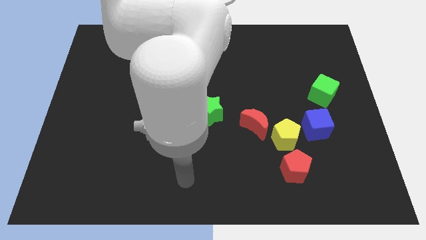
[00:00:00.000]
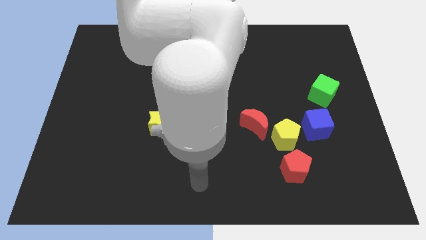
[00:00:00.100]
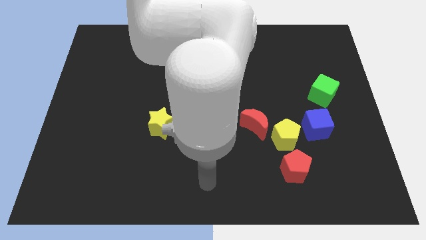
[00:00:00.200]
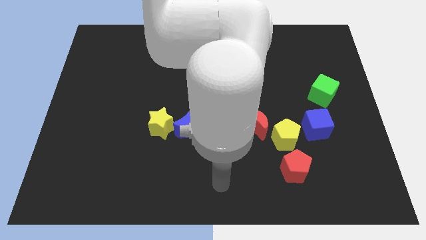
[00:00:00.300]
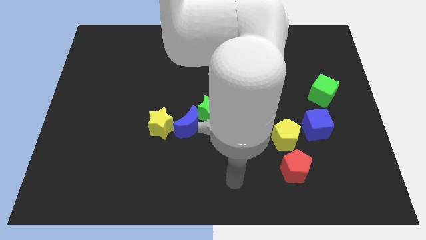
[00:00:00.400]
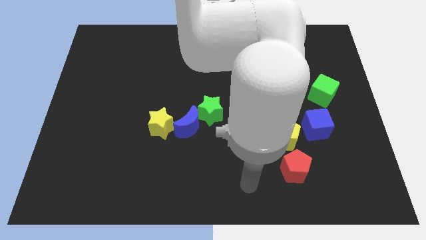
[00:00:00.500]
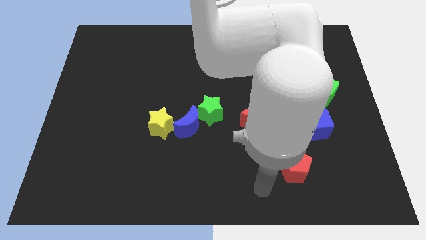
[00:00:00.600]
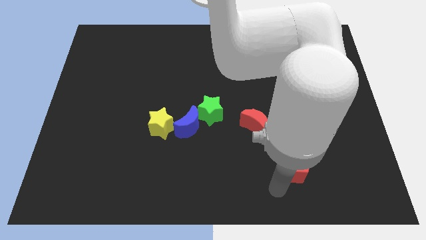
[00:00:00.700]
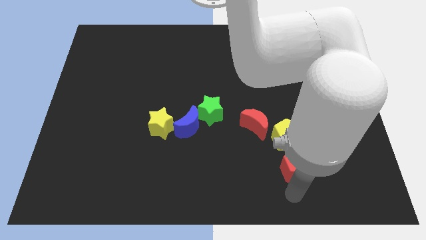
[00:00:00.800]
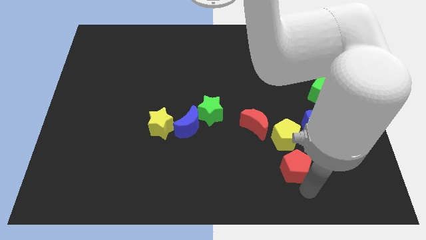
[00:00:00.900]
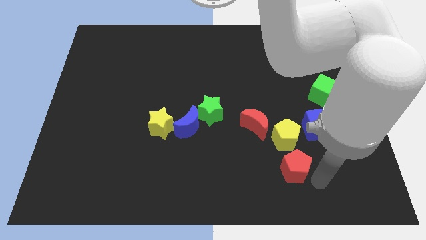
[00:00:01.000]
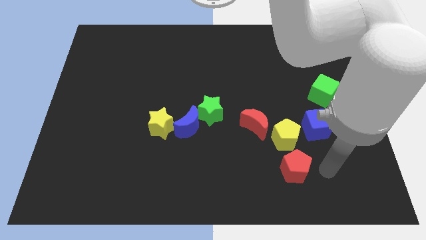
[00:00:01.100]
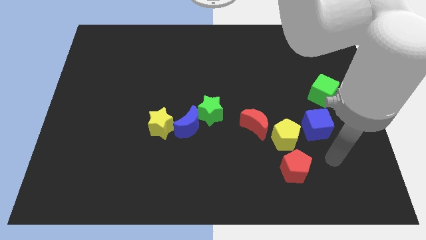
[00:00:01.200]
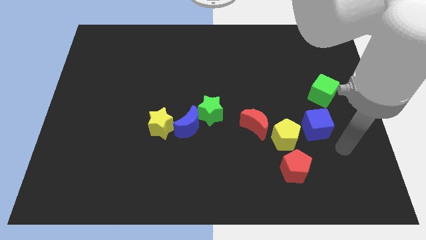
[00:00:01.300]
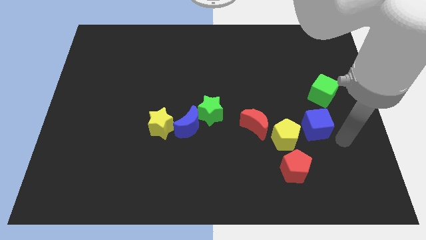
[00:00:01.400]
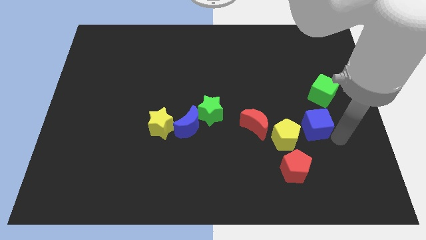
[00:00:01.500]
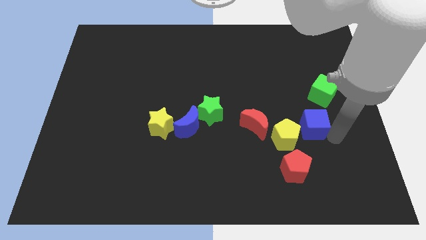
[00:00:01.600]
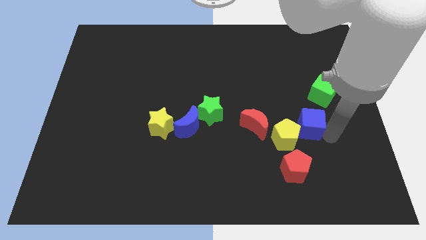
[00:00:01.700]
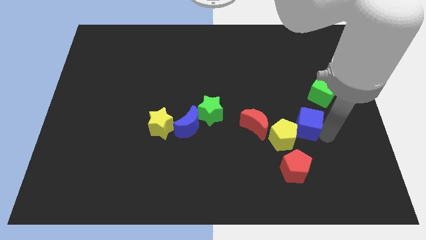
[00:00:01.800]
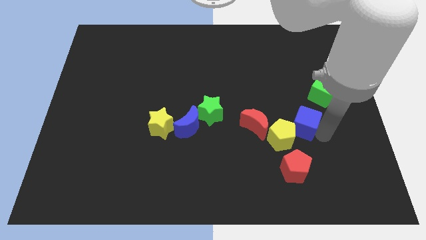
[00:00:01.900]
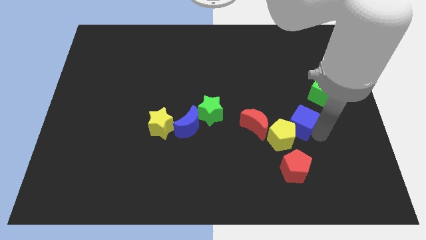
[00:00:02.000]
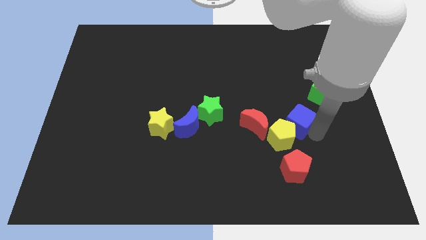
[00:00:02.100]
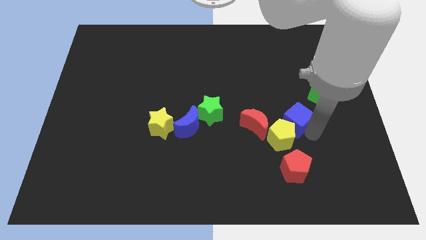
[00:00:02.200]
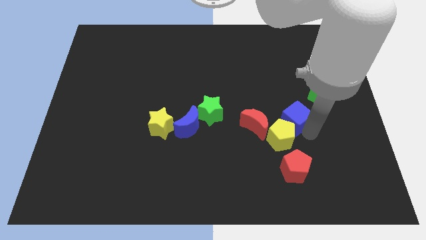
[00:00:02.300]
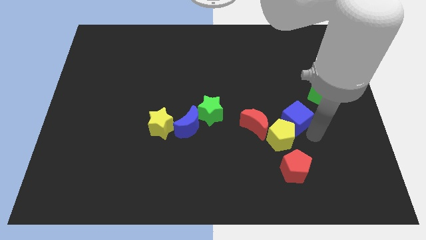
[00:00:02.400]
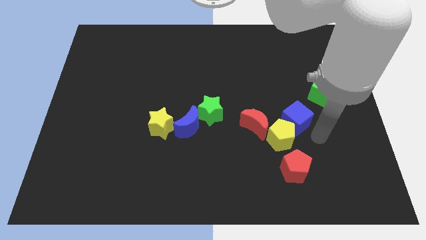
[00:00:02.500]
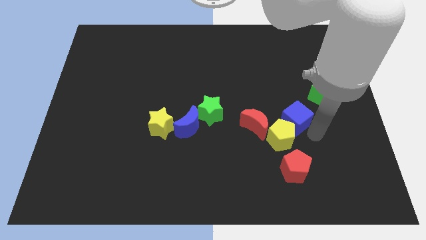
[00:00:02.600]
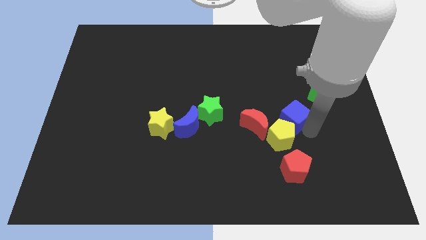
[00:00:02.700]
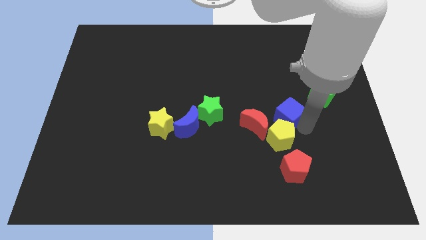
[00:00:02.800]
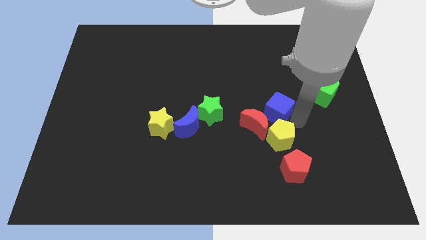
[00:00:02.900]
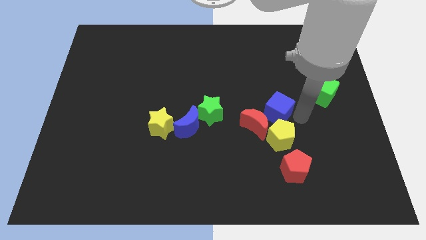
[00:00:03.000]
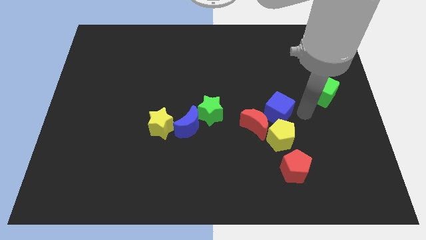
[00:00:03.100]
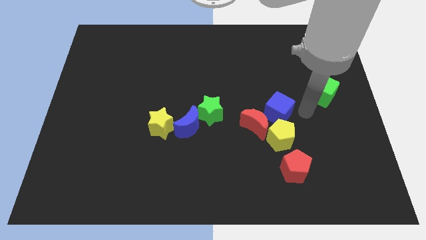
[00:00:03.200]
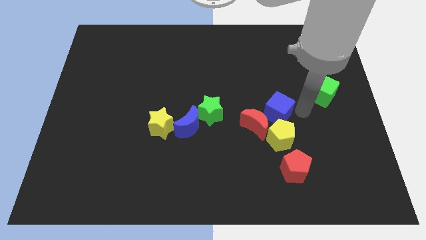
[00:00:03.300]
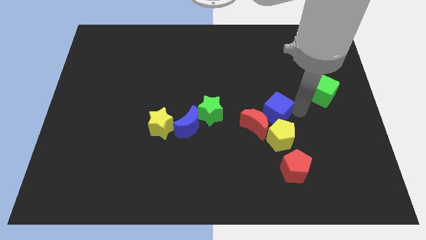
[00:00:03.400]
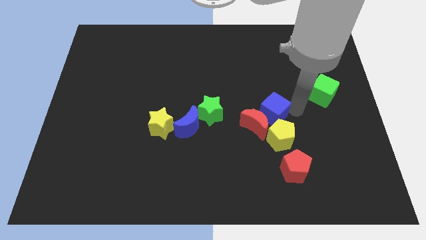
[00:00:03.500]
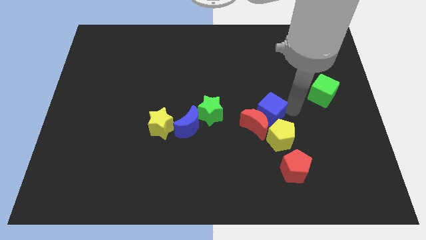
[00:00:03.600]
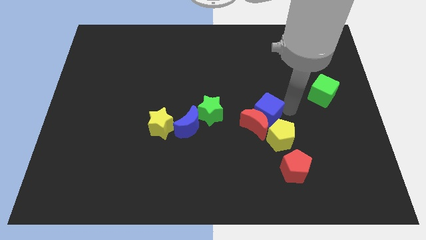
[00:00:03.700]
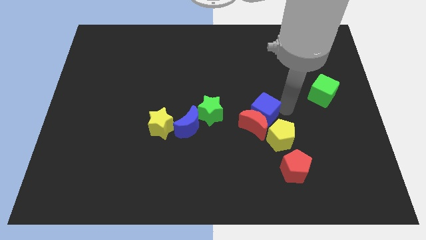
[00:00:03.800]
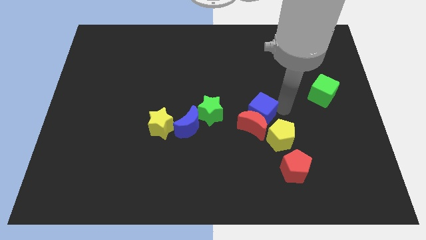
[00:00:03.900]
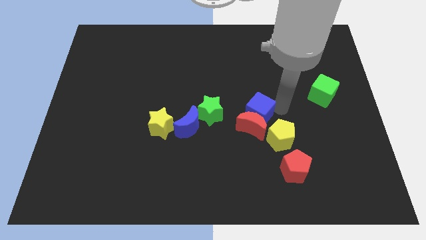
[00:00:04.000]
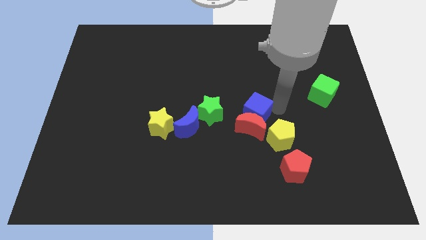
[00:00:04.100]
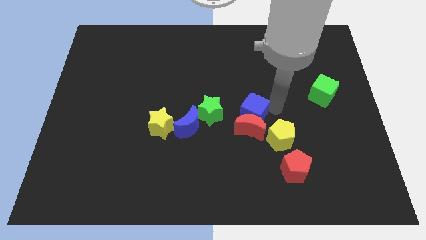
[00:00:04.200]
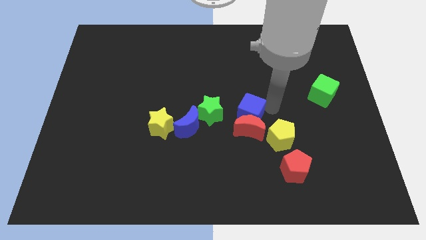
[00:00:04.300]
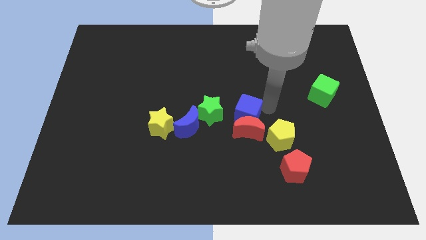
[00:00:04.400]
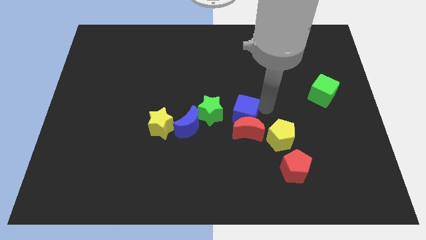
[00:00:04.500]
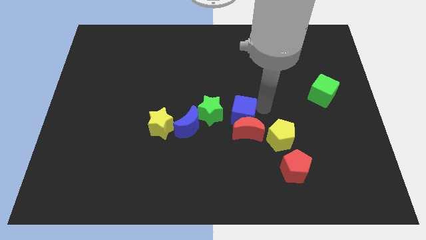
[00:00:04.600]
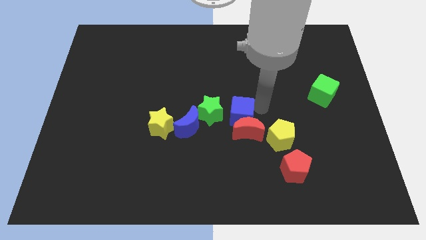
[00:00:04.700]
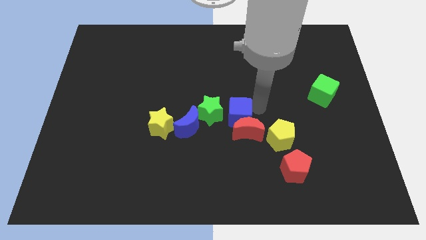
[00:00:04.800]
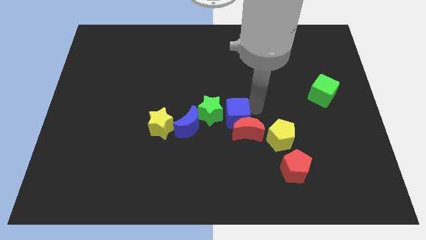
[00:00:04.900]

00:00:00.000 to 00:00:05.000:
put the blue cube towards the green star

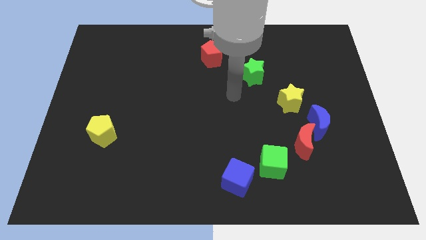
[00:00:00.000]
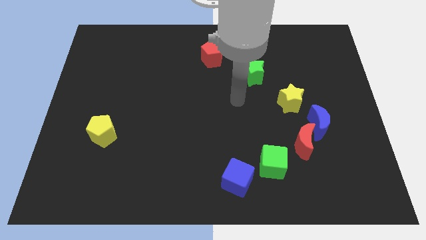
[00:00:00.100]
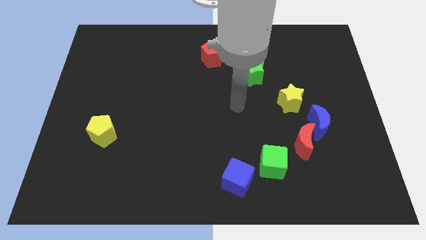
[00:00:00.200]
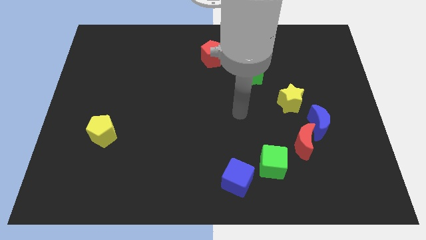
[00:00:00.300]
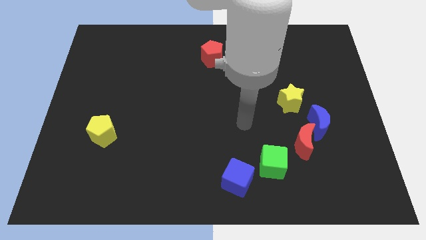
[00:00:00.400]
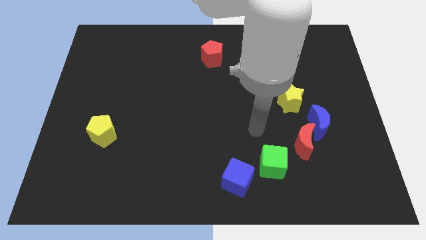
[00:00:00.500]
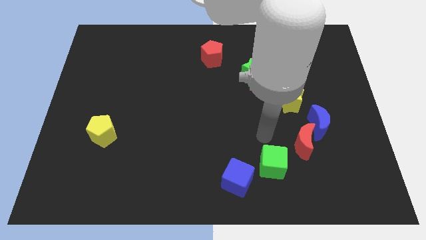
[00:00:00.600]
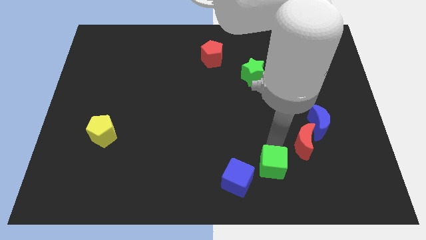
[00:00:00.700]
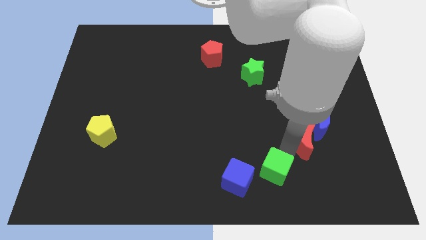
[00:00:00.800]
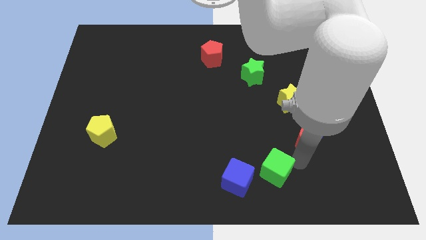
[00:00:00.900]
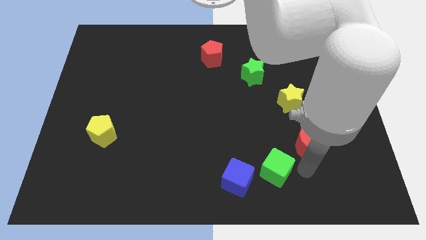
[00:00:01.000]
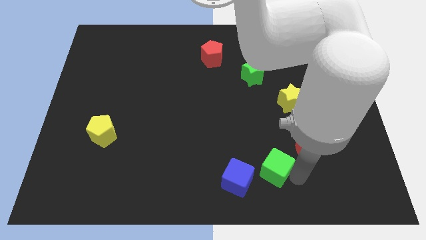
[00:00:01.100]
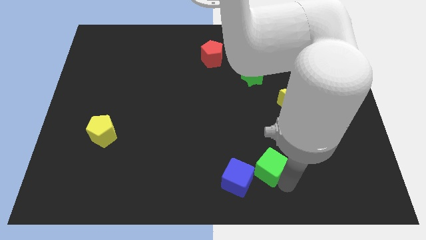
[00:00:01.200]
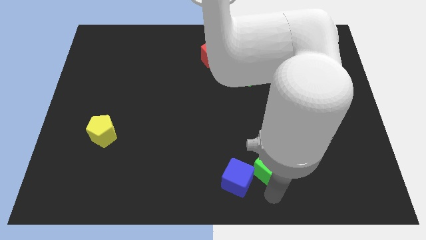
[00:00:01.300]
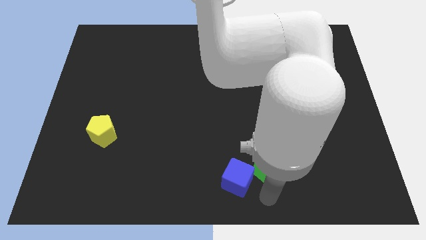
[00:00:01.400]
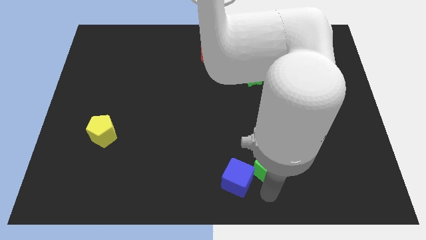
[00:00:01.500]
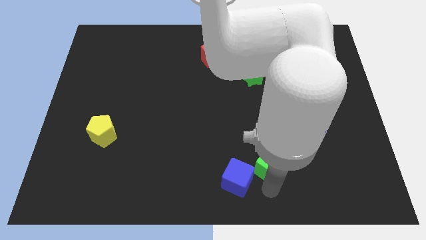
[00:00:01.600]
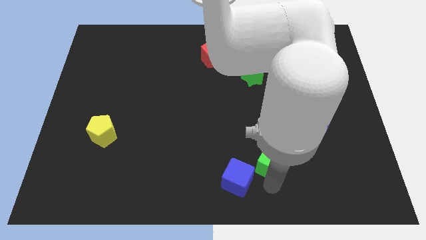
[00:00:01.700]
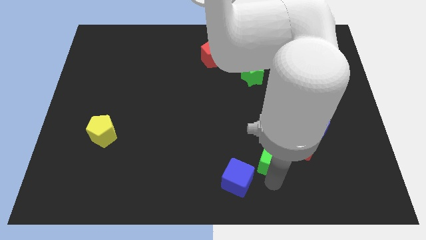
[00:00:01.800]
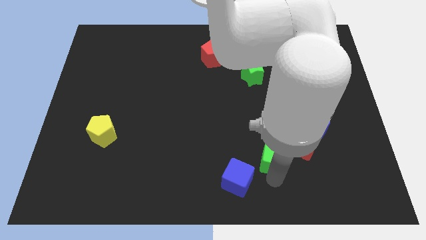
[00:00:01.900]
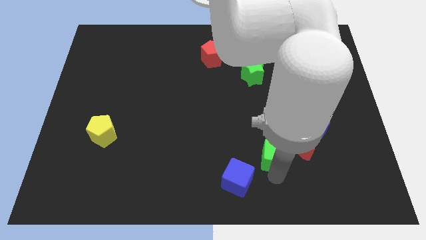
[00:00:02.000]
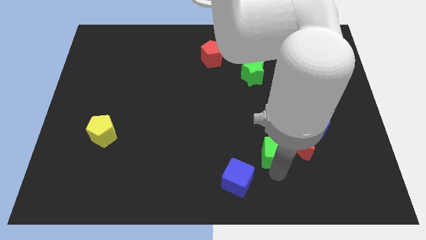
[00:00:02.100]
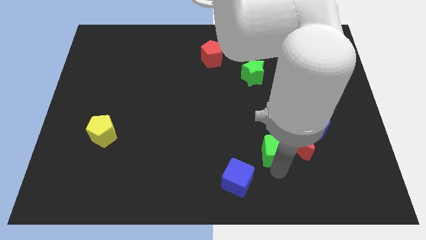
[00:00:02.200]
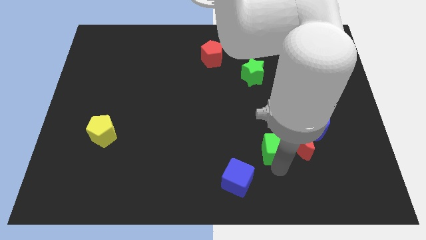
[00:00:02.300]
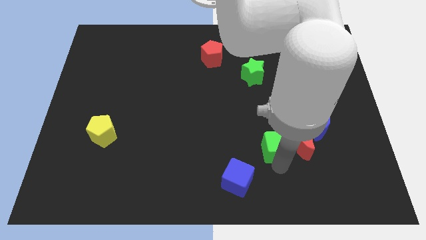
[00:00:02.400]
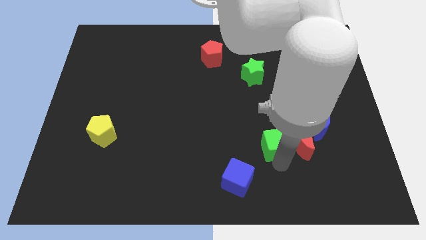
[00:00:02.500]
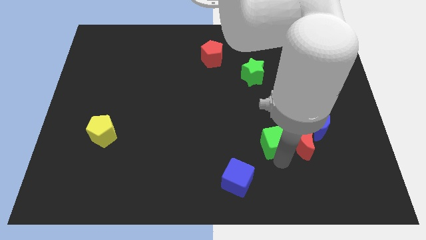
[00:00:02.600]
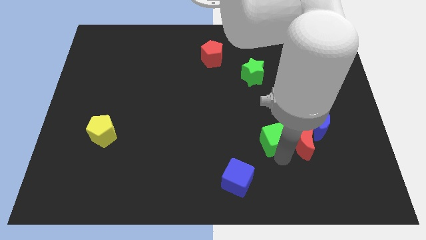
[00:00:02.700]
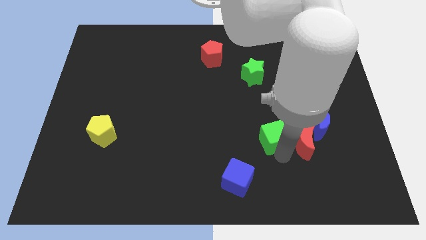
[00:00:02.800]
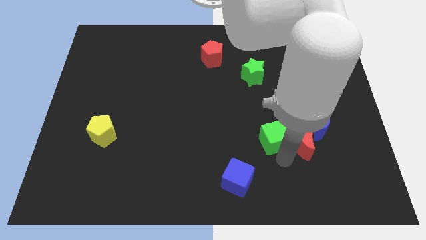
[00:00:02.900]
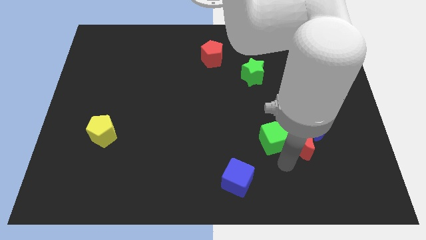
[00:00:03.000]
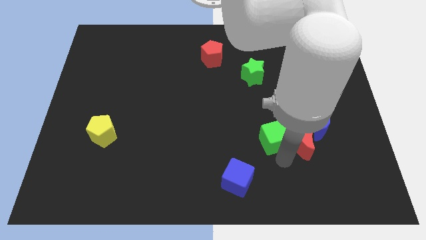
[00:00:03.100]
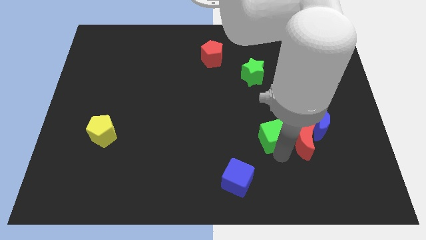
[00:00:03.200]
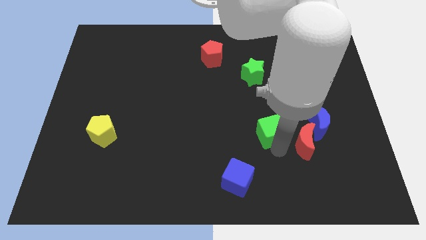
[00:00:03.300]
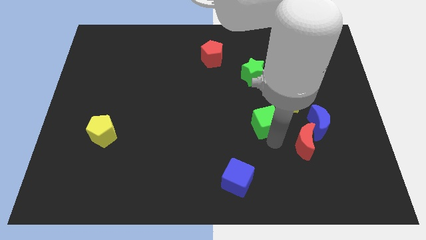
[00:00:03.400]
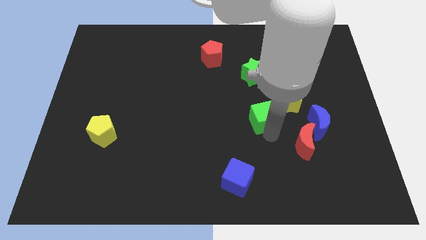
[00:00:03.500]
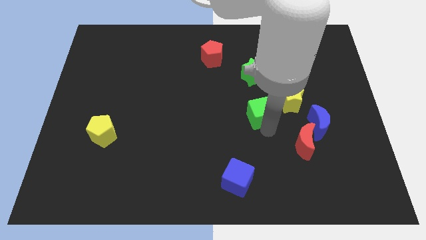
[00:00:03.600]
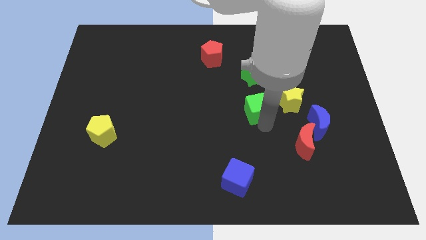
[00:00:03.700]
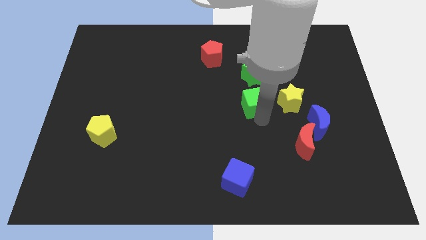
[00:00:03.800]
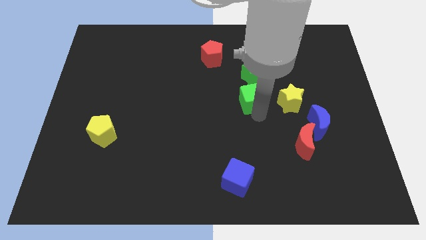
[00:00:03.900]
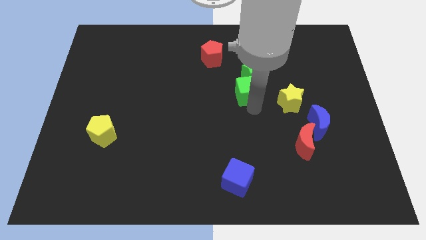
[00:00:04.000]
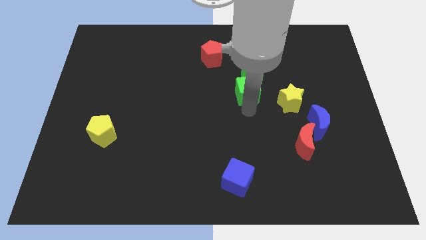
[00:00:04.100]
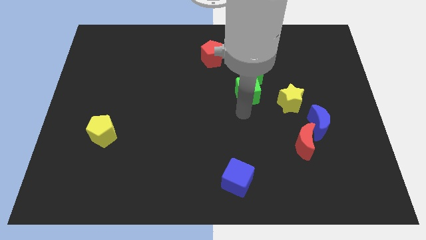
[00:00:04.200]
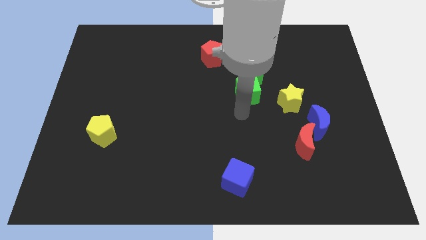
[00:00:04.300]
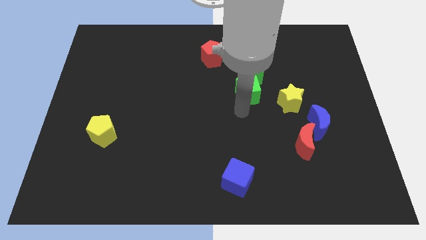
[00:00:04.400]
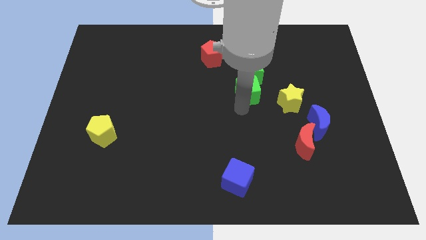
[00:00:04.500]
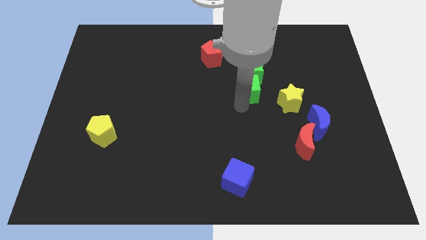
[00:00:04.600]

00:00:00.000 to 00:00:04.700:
put the green cube towards the green star
